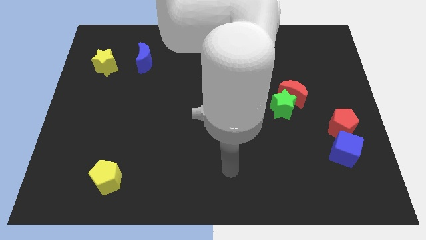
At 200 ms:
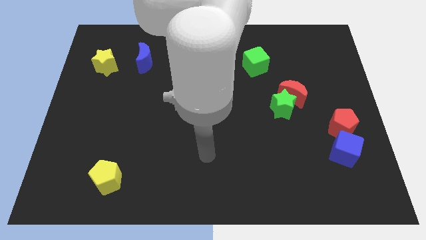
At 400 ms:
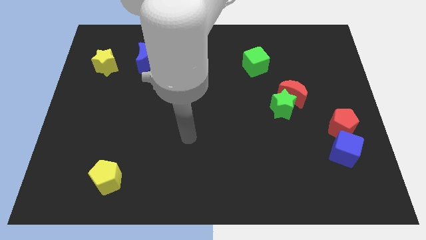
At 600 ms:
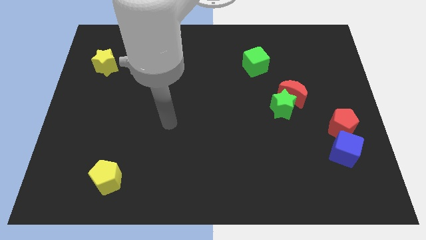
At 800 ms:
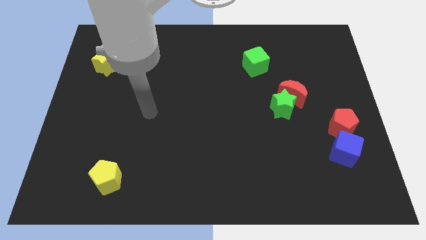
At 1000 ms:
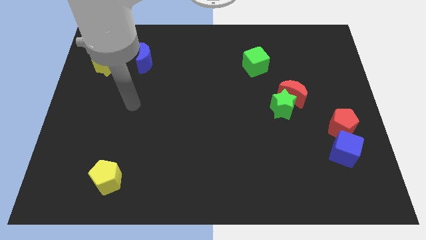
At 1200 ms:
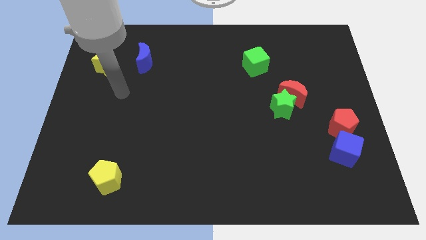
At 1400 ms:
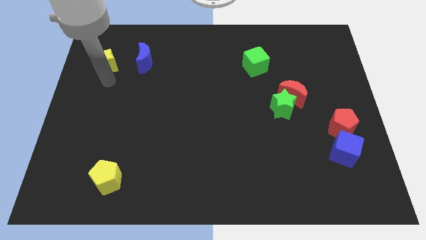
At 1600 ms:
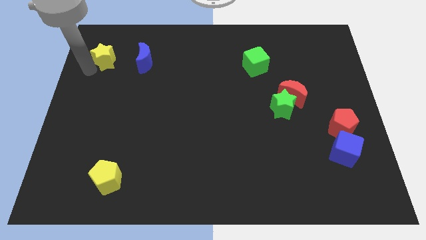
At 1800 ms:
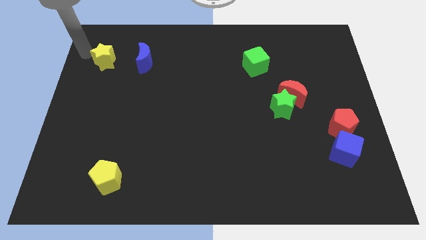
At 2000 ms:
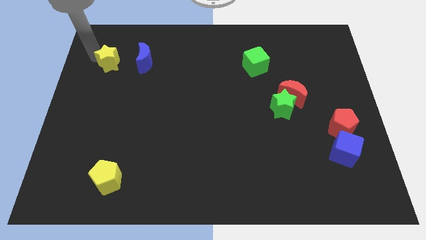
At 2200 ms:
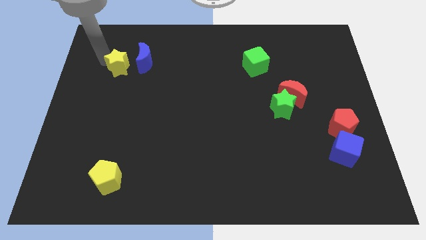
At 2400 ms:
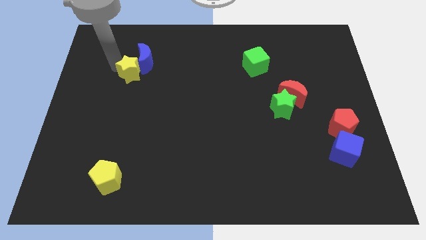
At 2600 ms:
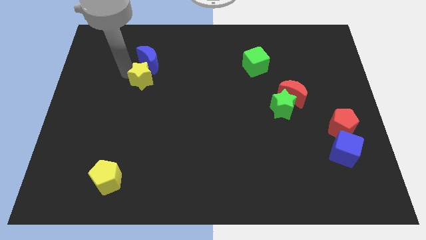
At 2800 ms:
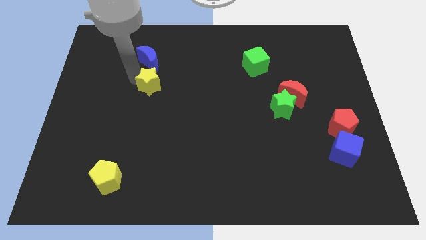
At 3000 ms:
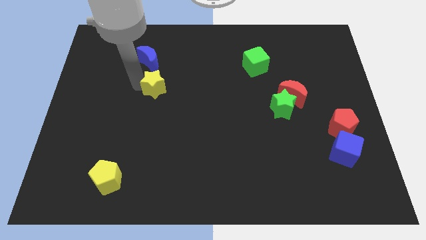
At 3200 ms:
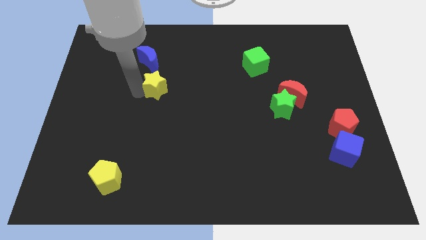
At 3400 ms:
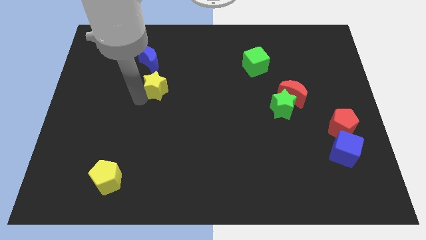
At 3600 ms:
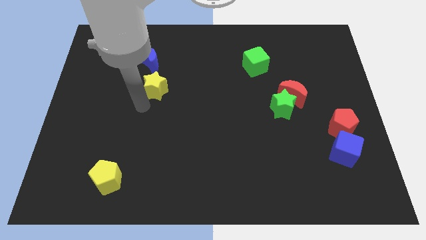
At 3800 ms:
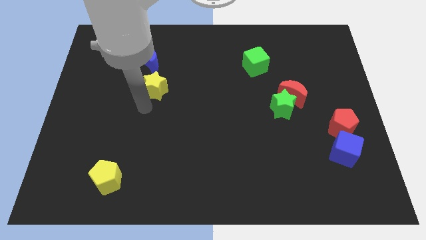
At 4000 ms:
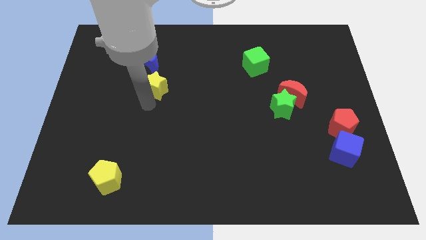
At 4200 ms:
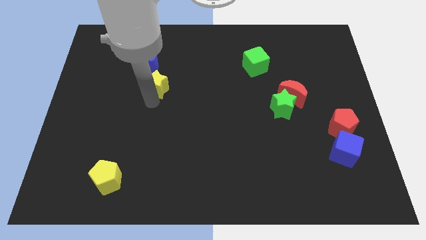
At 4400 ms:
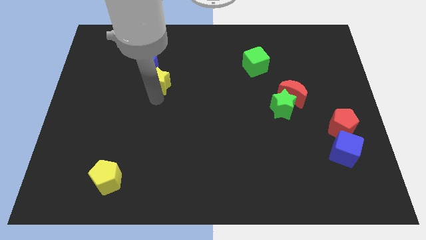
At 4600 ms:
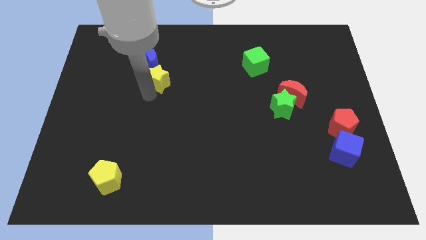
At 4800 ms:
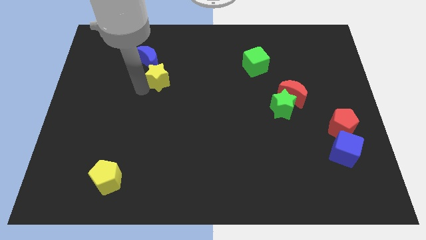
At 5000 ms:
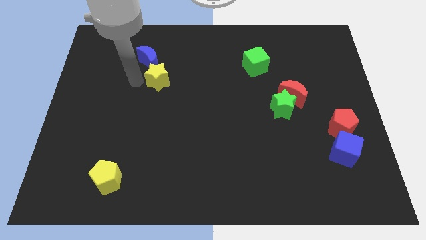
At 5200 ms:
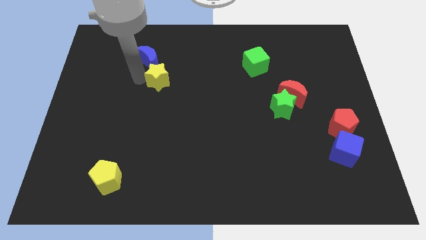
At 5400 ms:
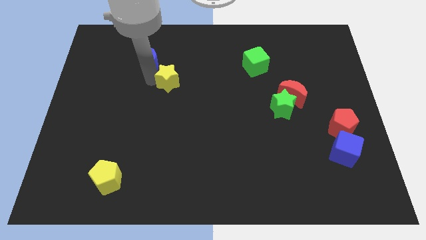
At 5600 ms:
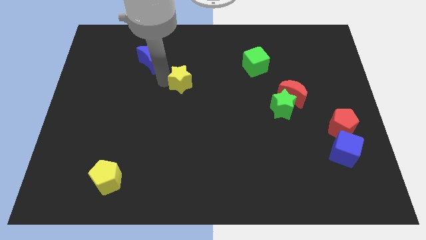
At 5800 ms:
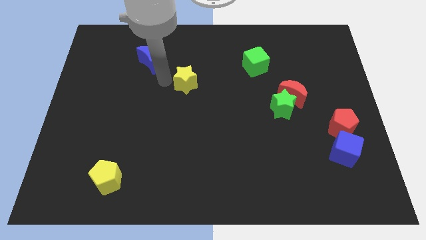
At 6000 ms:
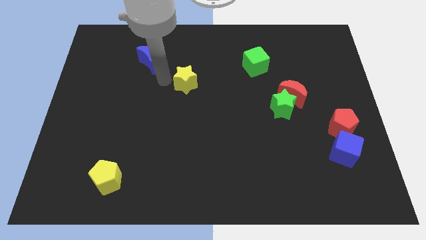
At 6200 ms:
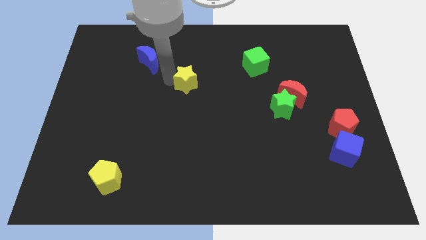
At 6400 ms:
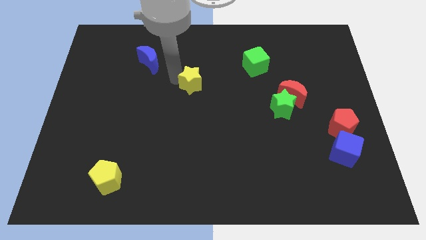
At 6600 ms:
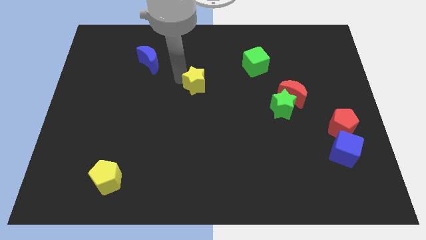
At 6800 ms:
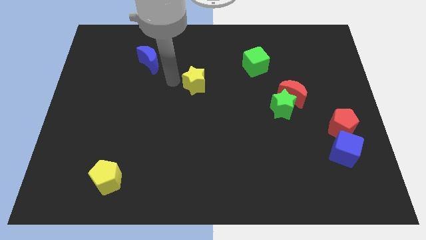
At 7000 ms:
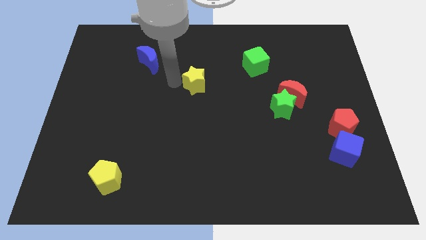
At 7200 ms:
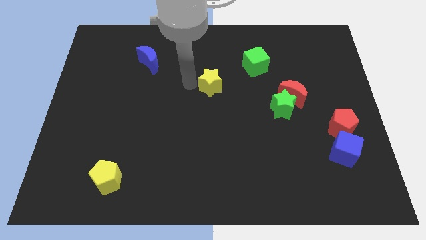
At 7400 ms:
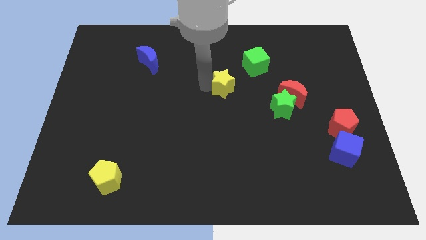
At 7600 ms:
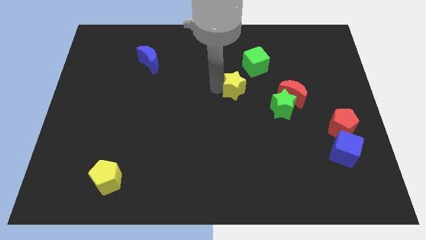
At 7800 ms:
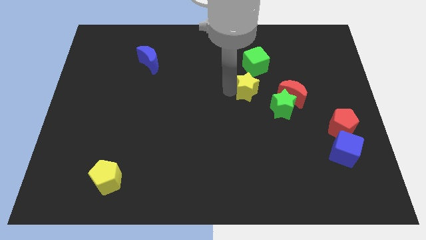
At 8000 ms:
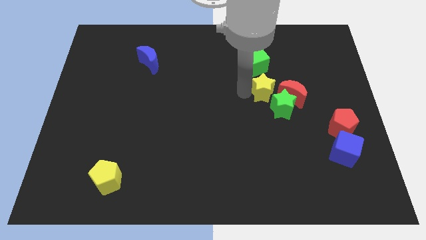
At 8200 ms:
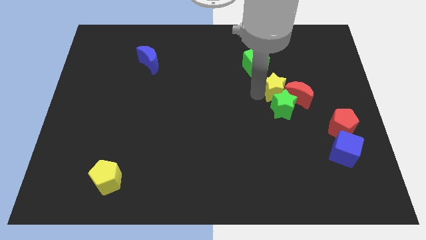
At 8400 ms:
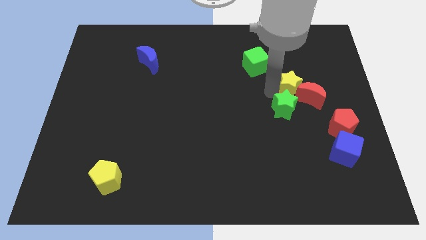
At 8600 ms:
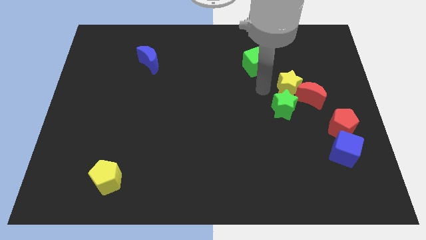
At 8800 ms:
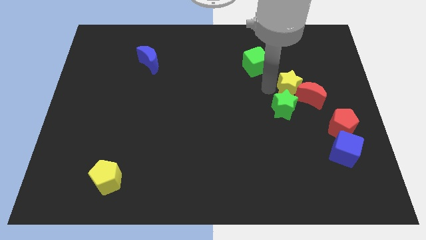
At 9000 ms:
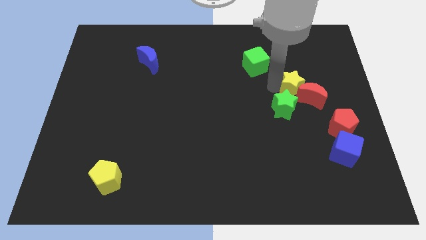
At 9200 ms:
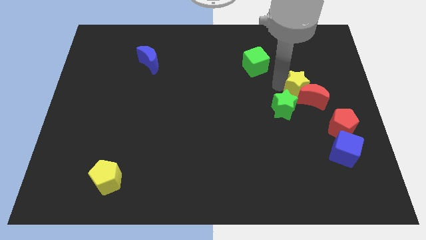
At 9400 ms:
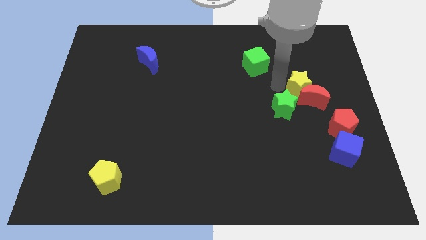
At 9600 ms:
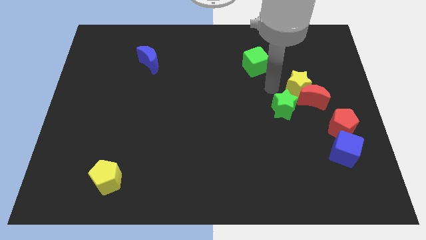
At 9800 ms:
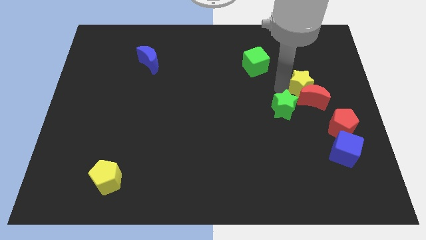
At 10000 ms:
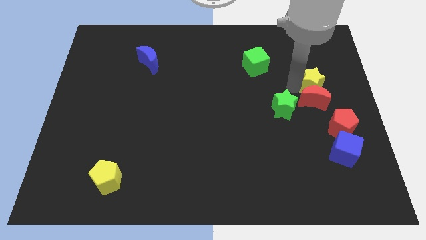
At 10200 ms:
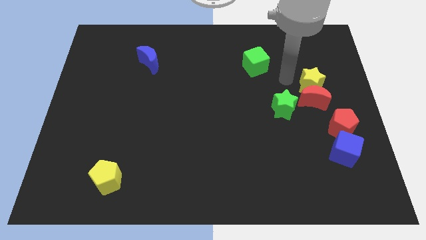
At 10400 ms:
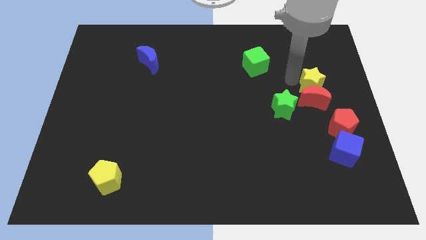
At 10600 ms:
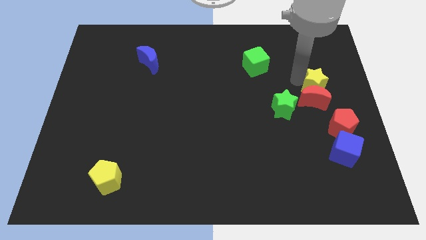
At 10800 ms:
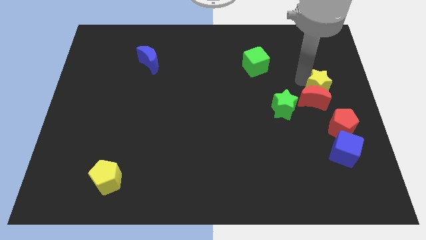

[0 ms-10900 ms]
put the yellow star to the right side
